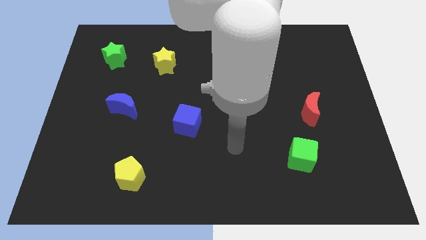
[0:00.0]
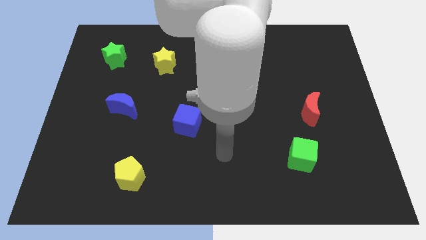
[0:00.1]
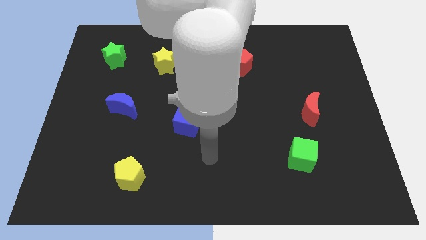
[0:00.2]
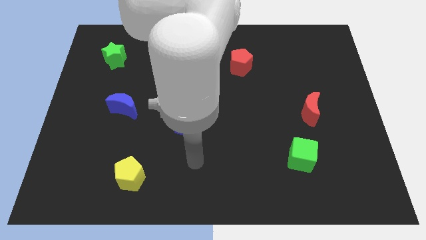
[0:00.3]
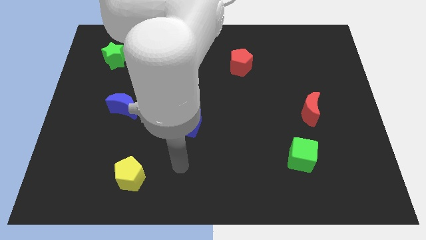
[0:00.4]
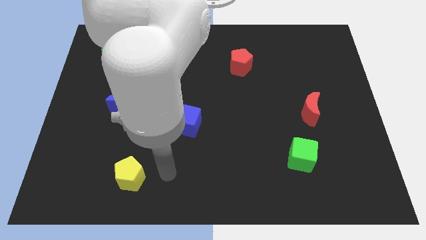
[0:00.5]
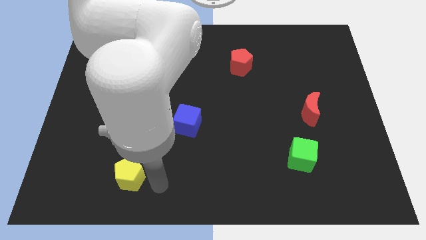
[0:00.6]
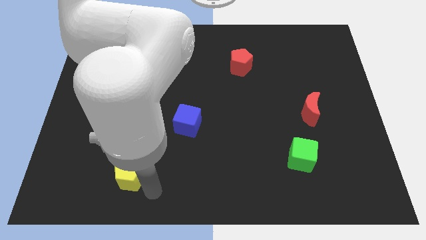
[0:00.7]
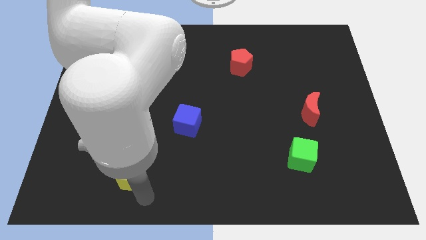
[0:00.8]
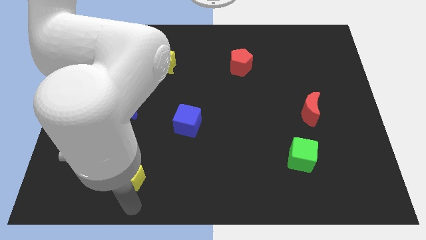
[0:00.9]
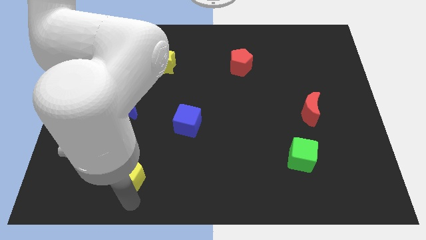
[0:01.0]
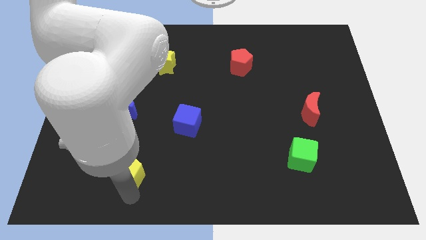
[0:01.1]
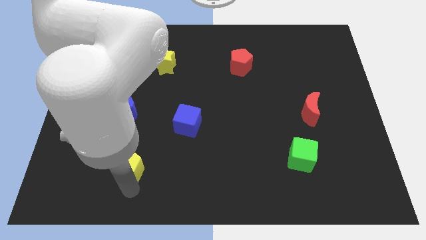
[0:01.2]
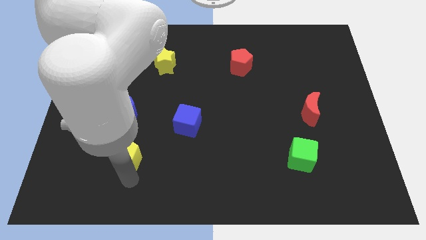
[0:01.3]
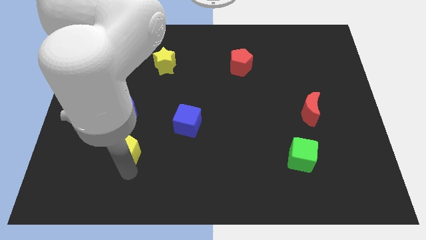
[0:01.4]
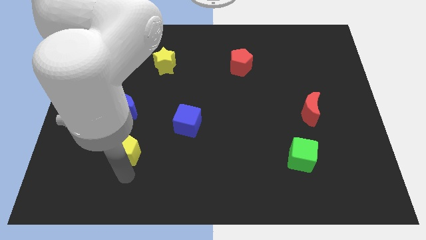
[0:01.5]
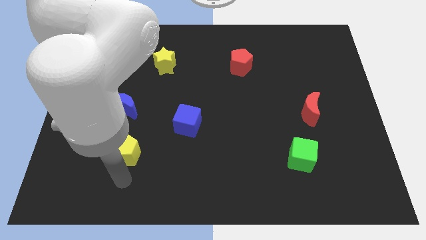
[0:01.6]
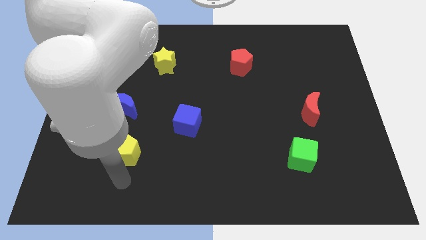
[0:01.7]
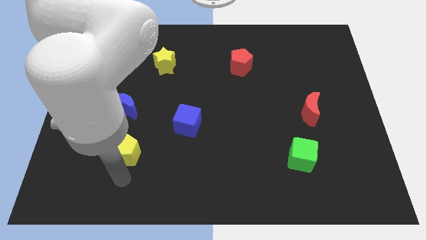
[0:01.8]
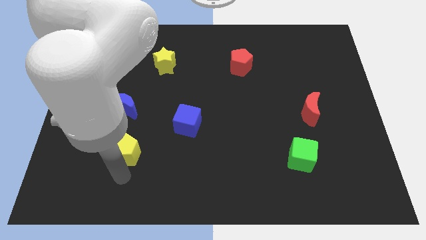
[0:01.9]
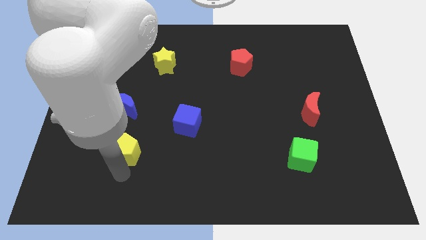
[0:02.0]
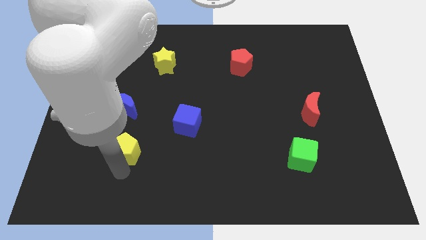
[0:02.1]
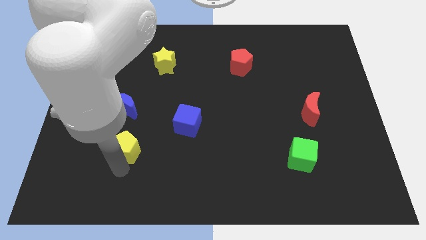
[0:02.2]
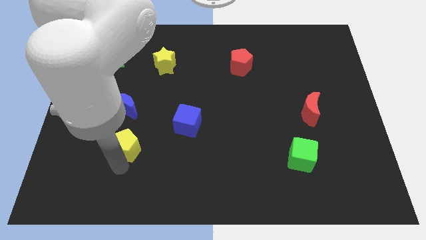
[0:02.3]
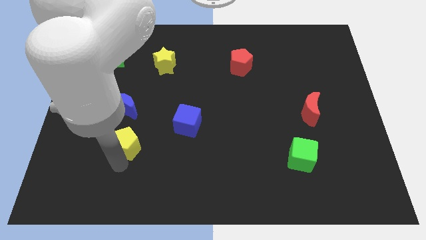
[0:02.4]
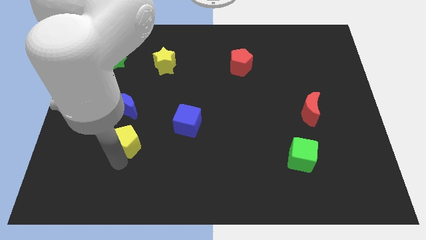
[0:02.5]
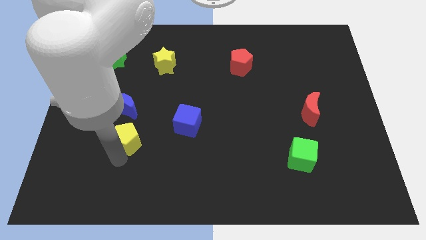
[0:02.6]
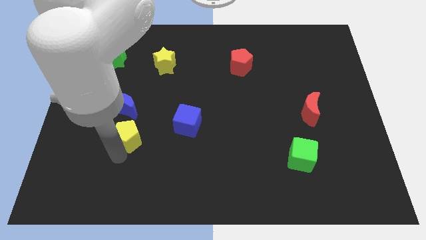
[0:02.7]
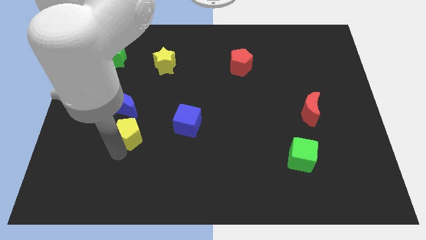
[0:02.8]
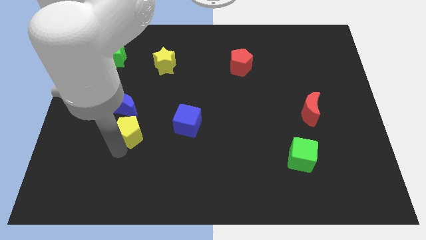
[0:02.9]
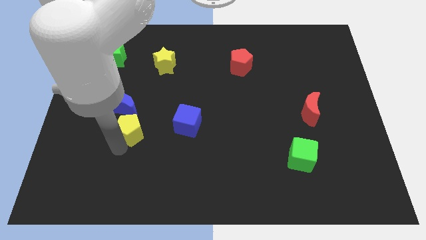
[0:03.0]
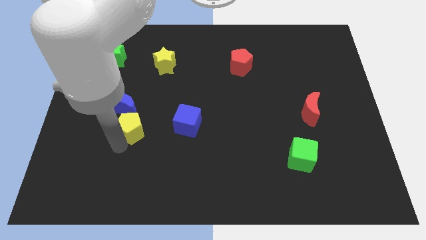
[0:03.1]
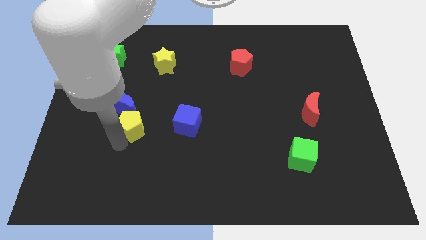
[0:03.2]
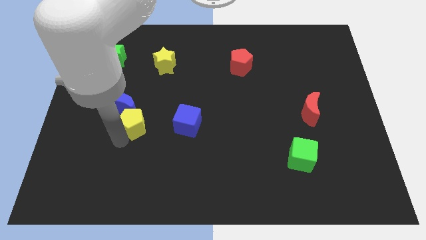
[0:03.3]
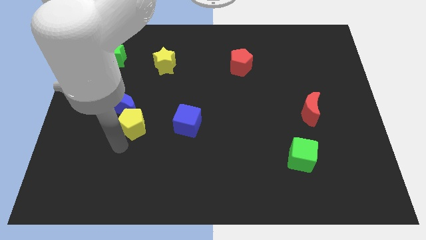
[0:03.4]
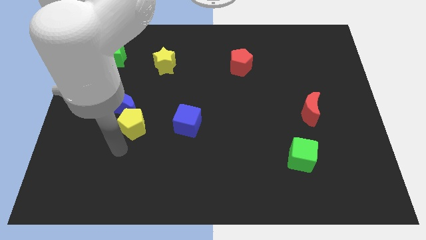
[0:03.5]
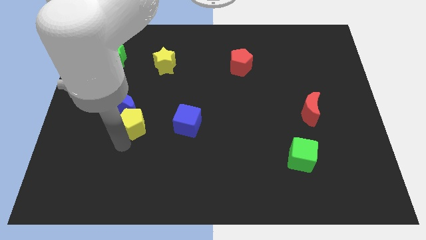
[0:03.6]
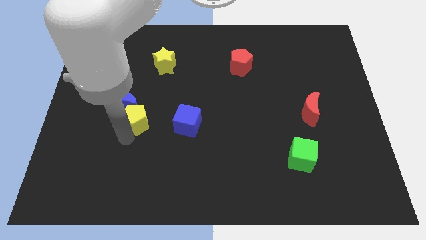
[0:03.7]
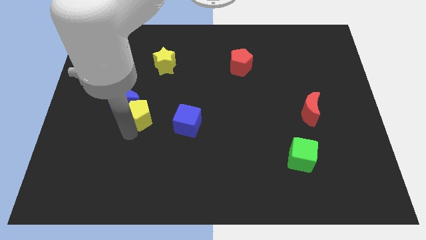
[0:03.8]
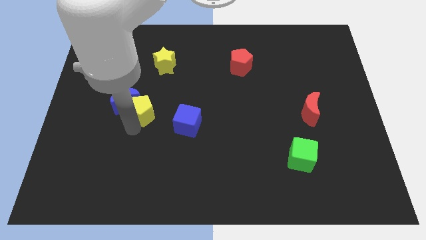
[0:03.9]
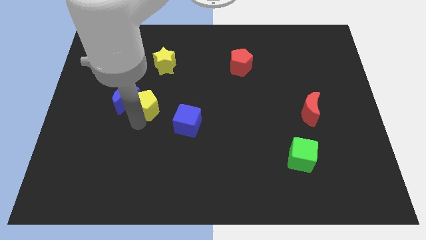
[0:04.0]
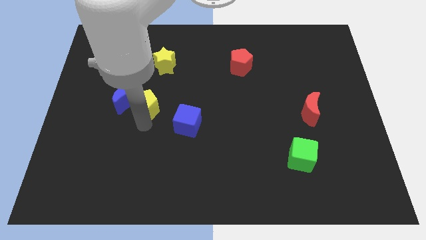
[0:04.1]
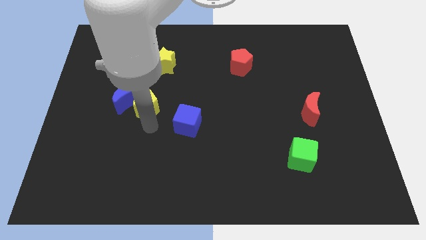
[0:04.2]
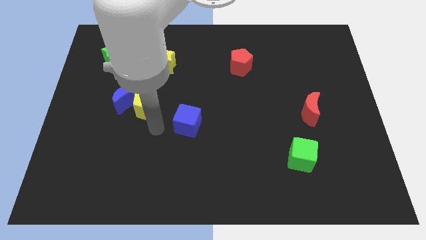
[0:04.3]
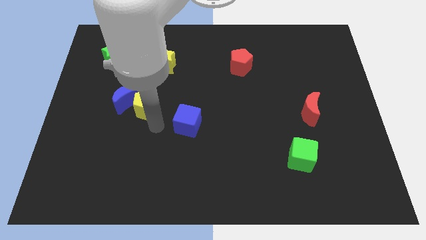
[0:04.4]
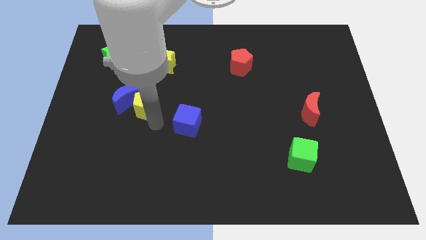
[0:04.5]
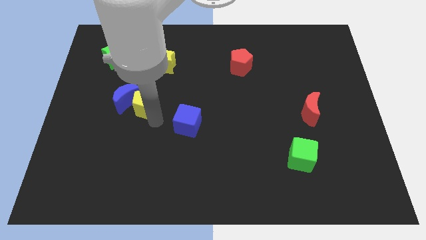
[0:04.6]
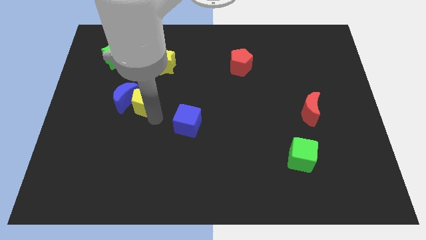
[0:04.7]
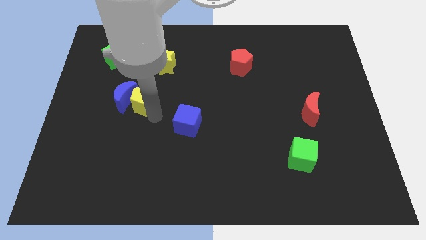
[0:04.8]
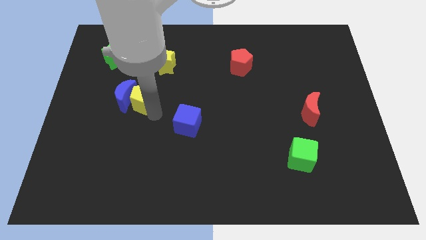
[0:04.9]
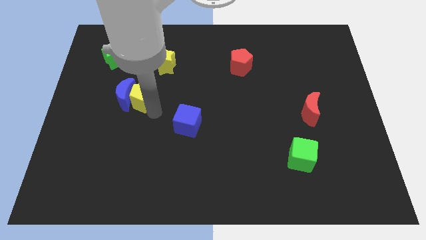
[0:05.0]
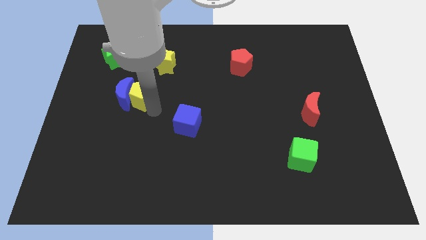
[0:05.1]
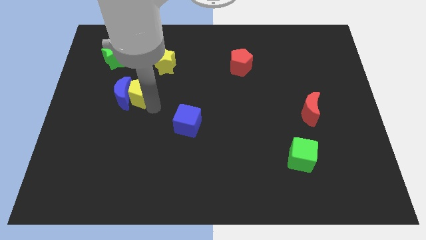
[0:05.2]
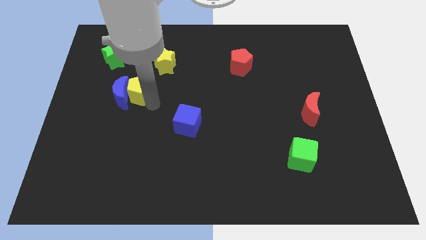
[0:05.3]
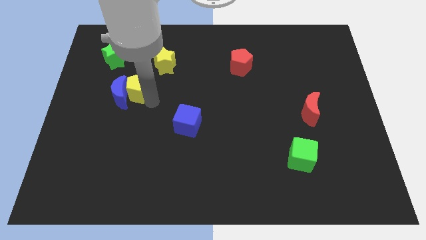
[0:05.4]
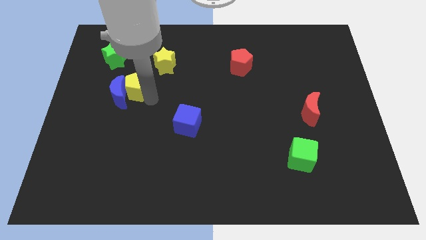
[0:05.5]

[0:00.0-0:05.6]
put the yellow pentagon to the bottom right of the green star

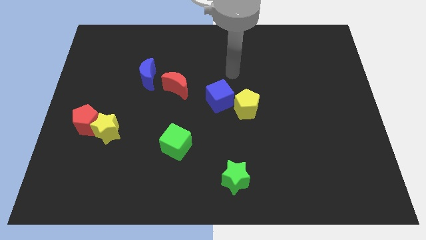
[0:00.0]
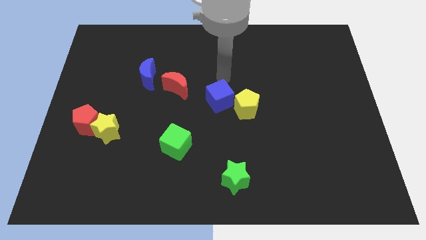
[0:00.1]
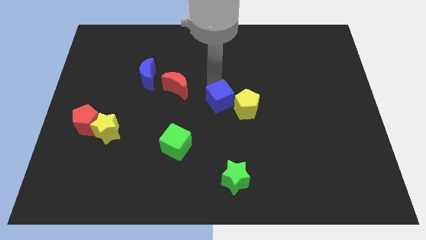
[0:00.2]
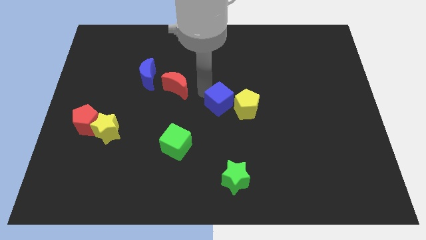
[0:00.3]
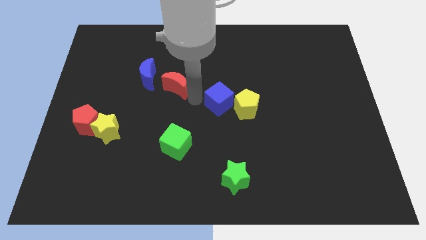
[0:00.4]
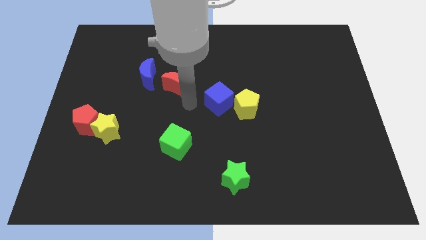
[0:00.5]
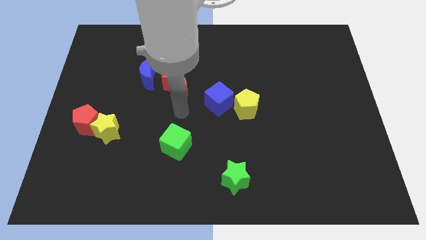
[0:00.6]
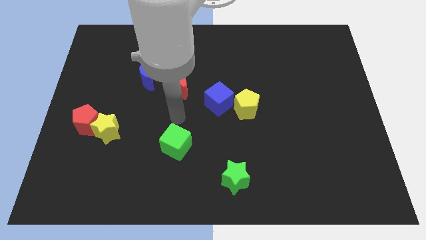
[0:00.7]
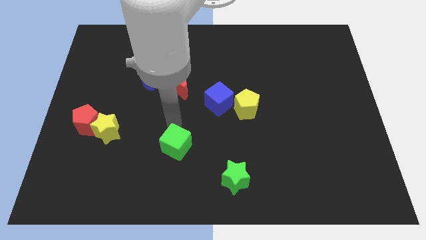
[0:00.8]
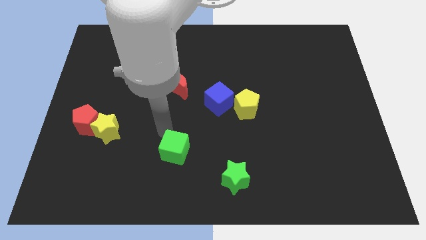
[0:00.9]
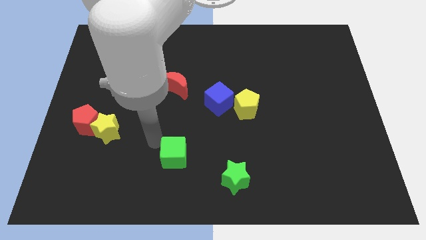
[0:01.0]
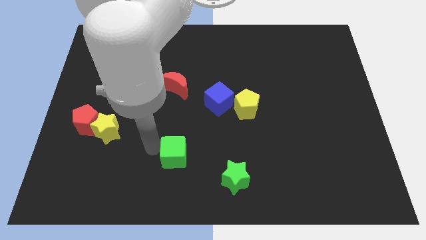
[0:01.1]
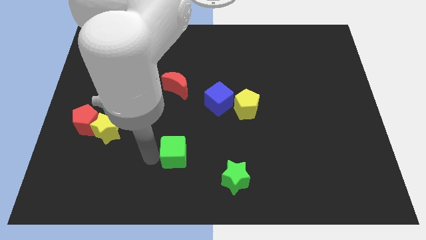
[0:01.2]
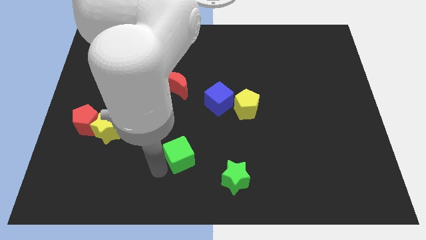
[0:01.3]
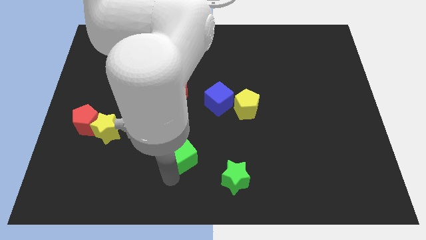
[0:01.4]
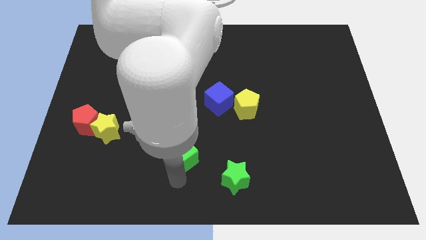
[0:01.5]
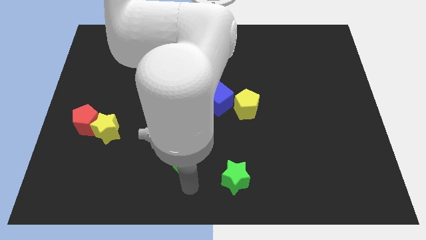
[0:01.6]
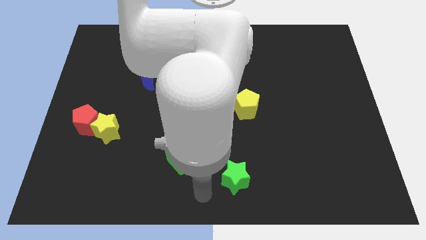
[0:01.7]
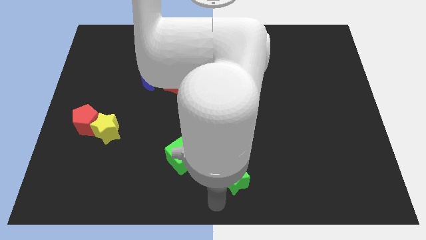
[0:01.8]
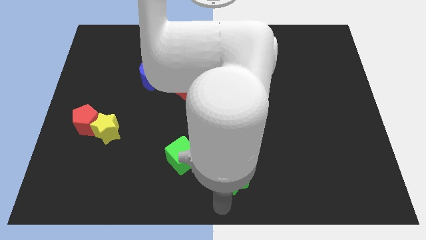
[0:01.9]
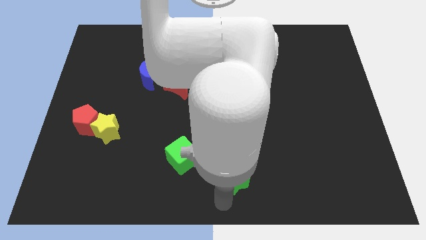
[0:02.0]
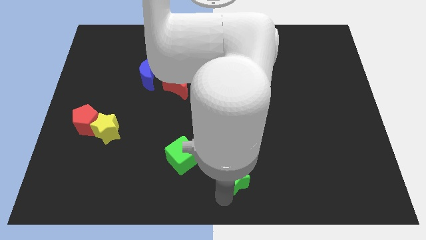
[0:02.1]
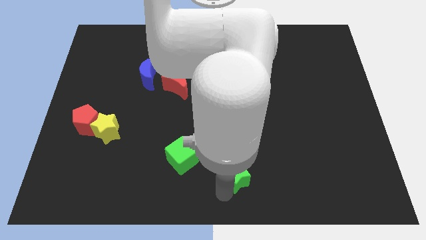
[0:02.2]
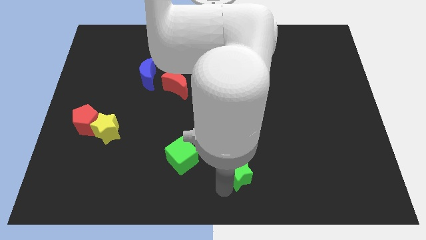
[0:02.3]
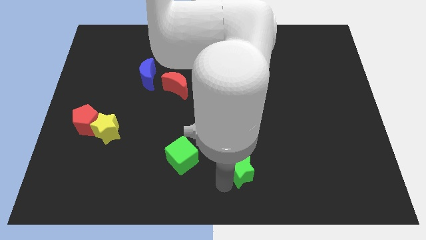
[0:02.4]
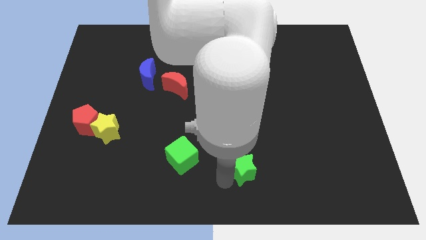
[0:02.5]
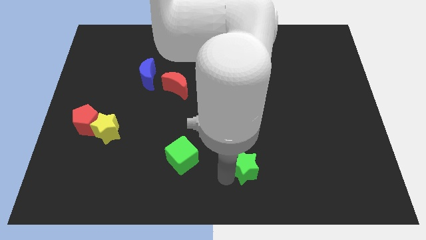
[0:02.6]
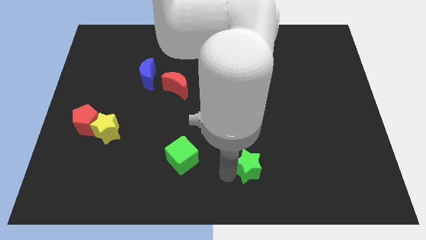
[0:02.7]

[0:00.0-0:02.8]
put the green star to the bottom side of the yellow pentagon
